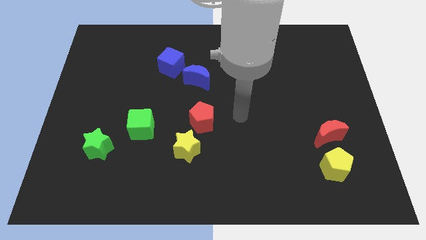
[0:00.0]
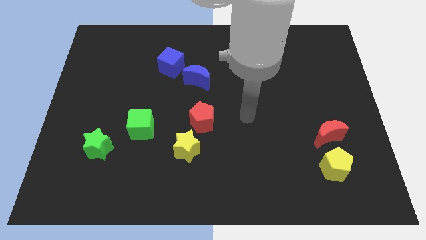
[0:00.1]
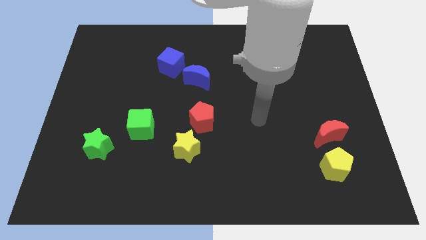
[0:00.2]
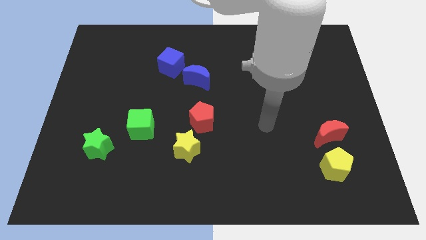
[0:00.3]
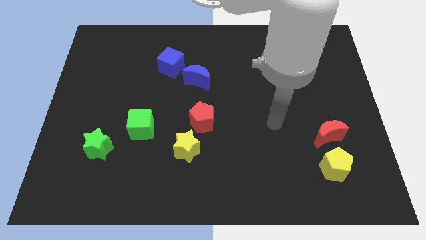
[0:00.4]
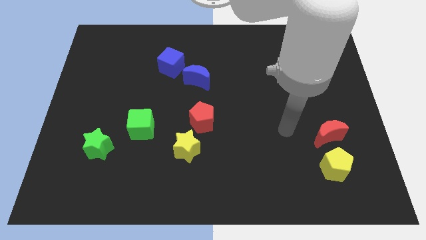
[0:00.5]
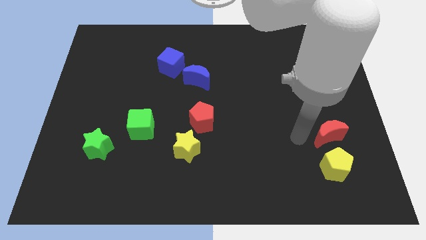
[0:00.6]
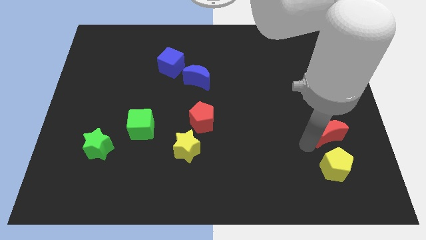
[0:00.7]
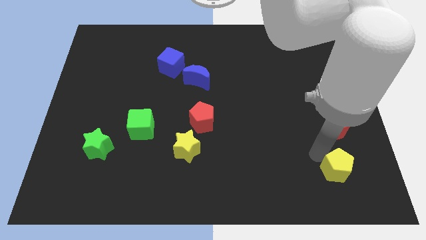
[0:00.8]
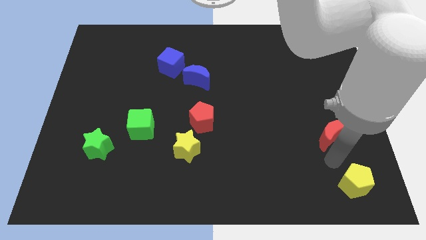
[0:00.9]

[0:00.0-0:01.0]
move the red moon away from the yellow pentagon

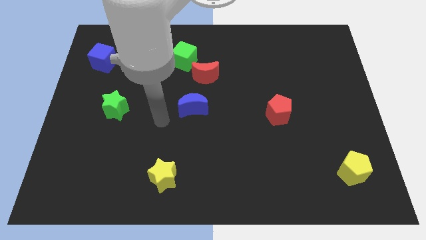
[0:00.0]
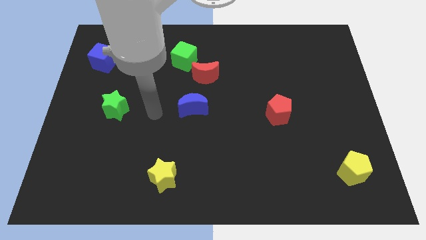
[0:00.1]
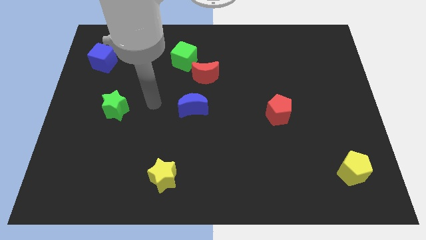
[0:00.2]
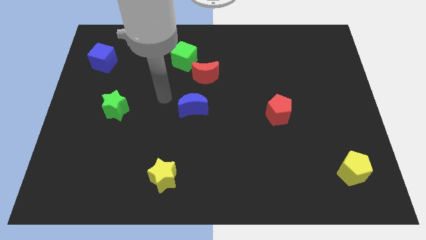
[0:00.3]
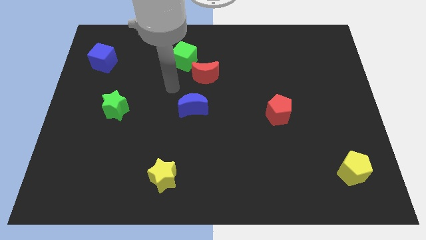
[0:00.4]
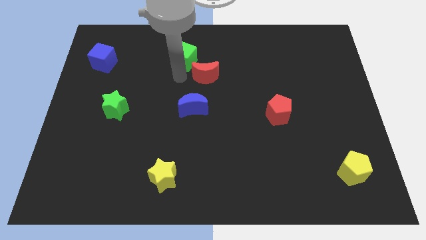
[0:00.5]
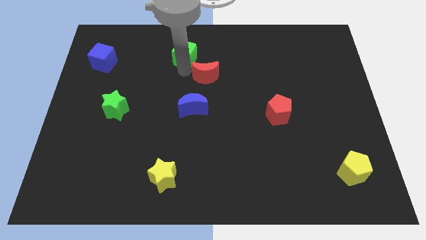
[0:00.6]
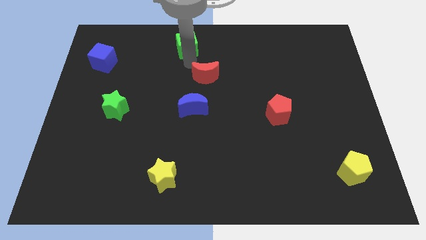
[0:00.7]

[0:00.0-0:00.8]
pull the red moon apart from the green cube

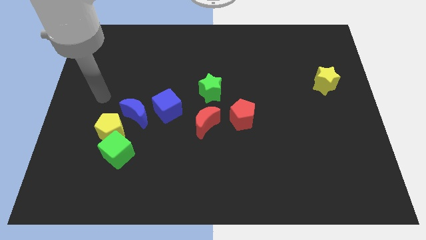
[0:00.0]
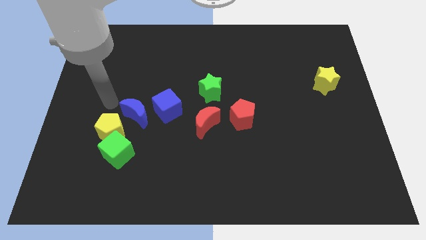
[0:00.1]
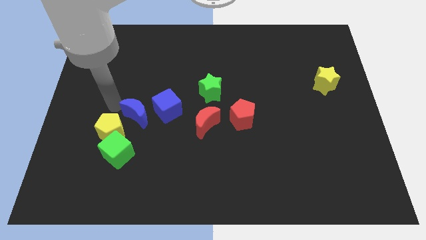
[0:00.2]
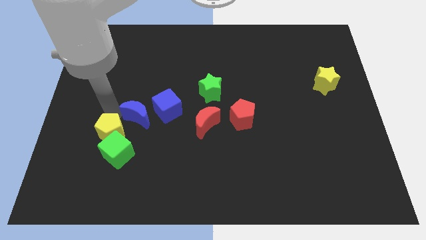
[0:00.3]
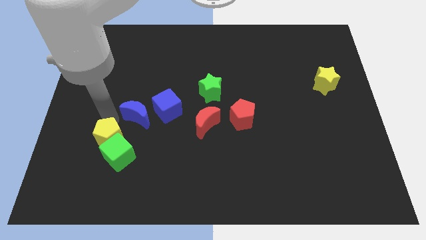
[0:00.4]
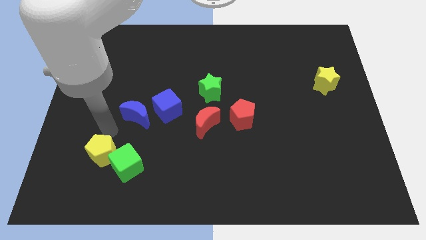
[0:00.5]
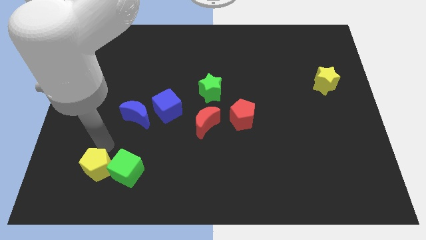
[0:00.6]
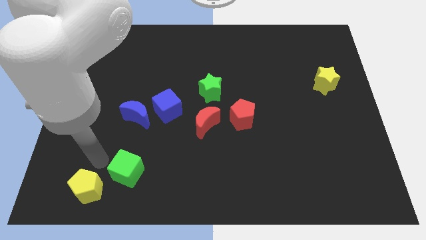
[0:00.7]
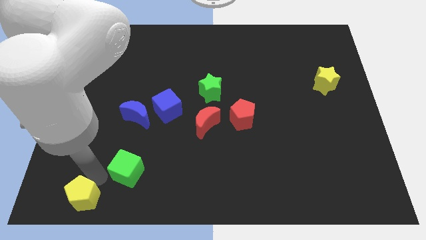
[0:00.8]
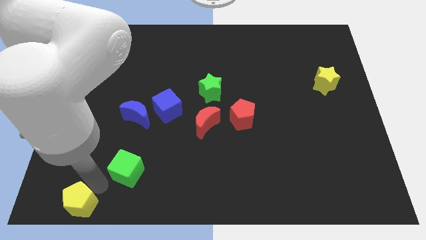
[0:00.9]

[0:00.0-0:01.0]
pull the green cube apart from the yellow pentagon

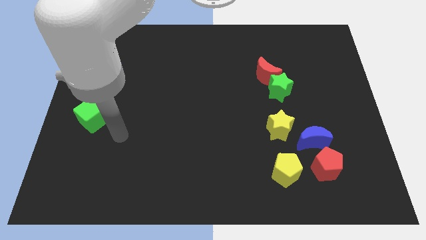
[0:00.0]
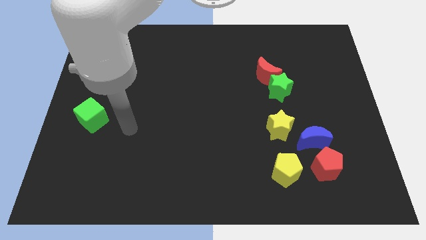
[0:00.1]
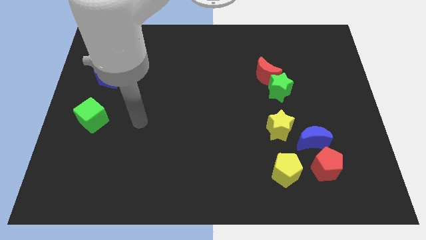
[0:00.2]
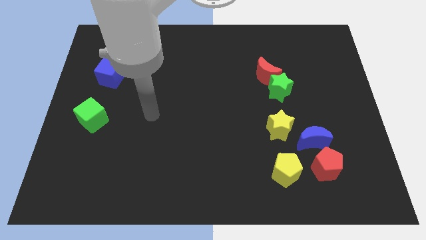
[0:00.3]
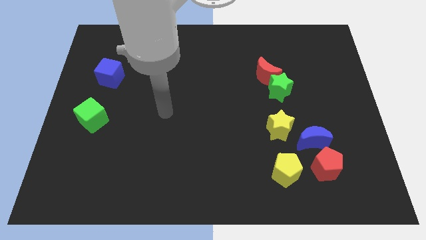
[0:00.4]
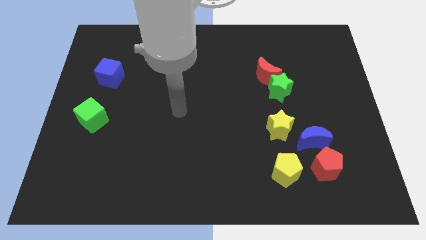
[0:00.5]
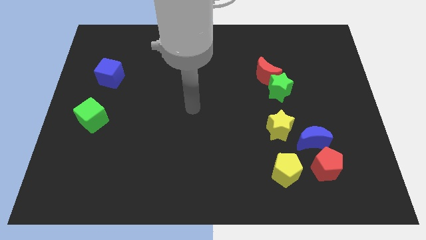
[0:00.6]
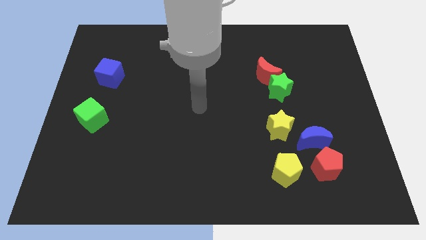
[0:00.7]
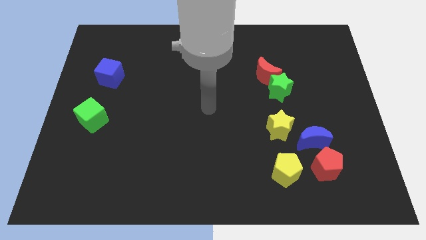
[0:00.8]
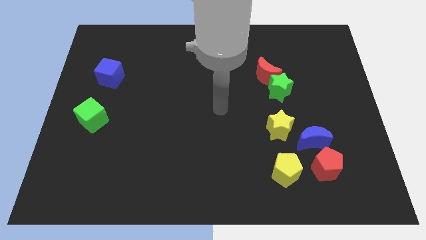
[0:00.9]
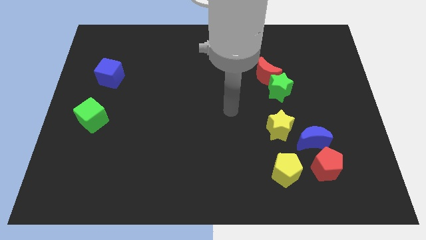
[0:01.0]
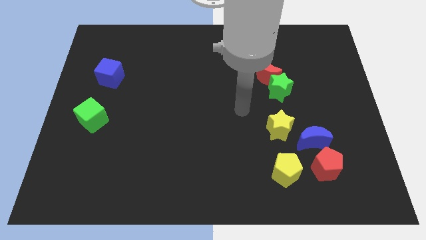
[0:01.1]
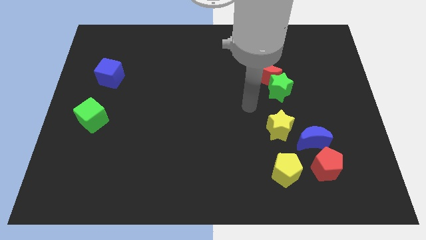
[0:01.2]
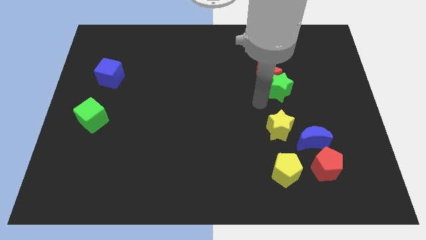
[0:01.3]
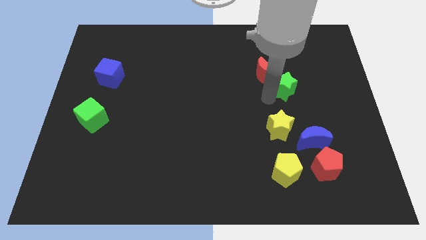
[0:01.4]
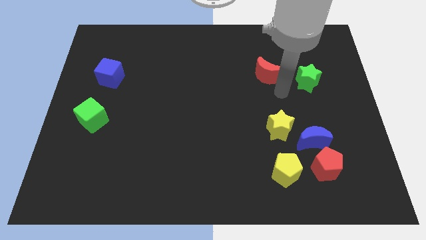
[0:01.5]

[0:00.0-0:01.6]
separate the red moon from the green star

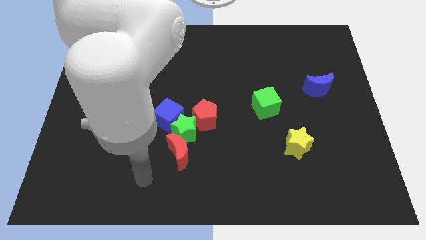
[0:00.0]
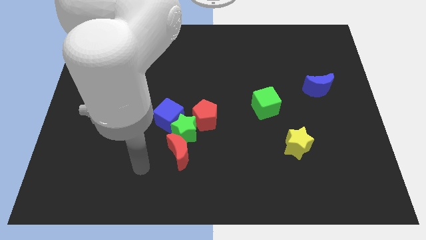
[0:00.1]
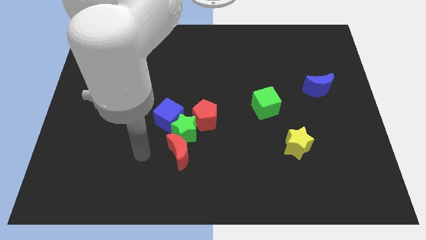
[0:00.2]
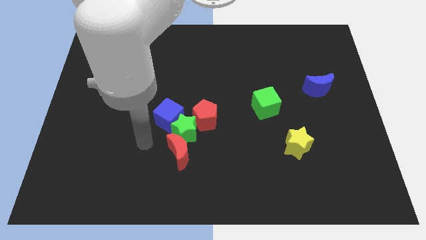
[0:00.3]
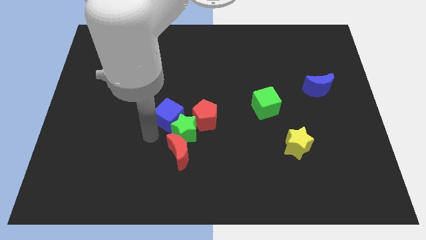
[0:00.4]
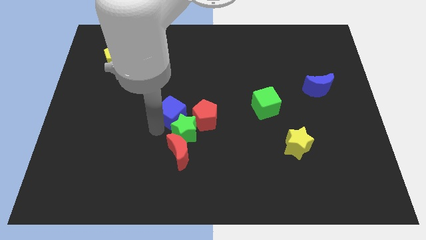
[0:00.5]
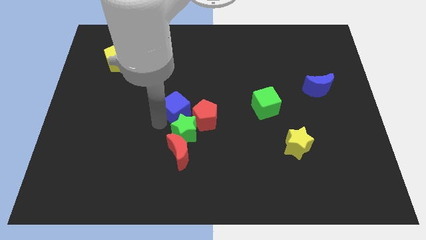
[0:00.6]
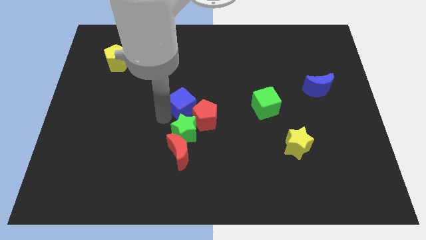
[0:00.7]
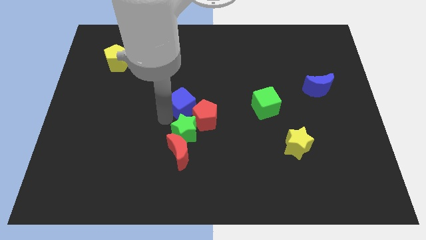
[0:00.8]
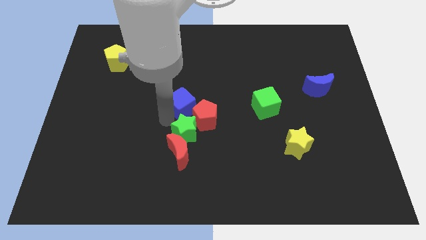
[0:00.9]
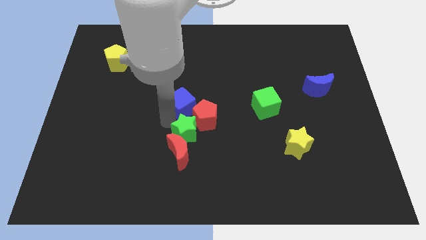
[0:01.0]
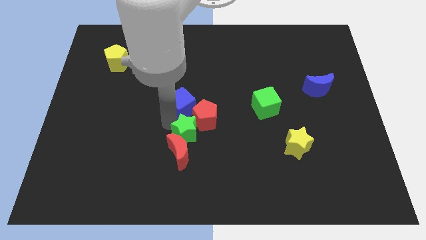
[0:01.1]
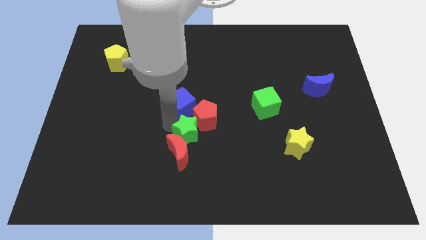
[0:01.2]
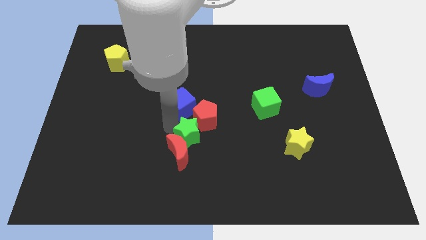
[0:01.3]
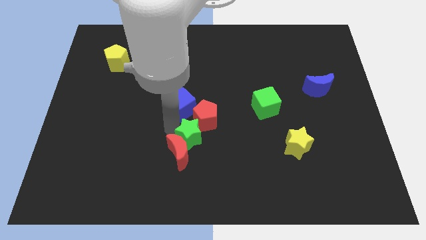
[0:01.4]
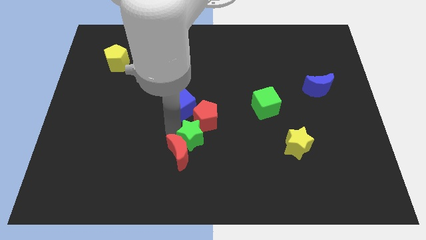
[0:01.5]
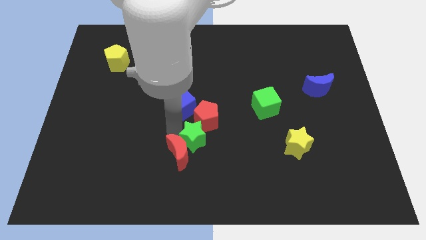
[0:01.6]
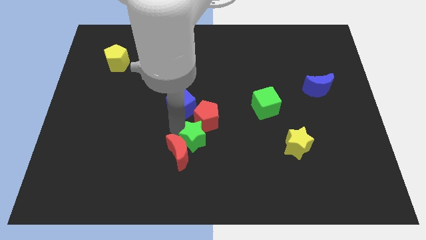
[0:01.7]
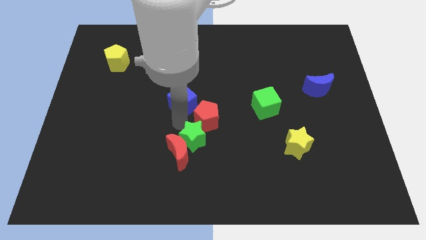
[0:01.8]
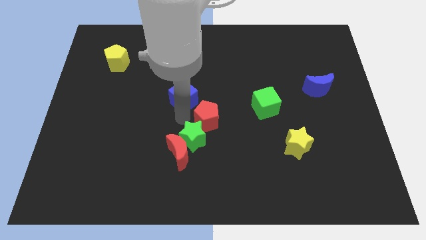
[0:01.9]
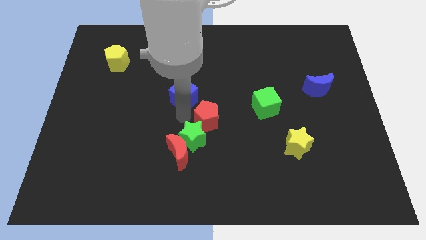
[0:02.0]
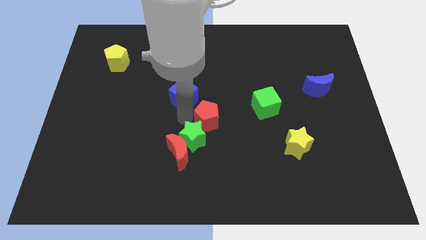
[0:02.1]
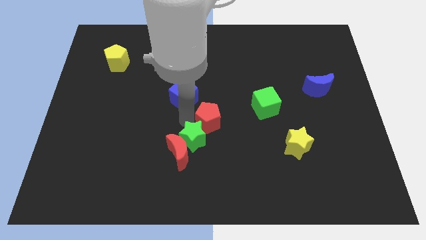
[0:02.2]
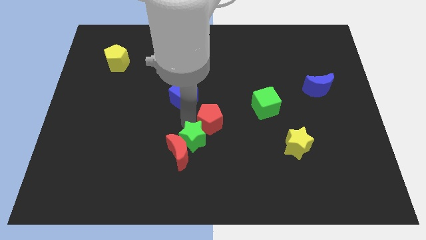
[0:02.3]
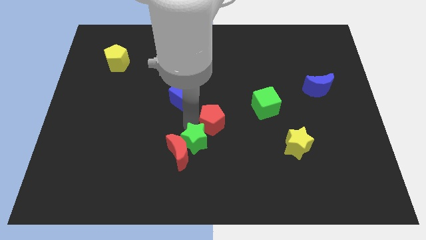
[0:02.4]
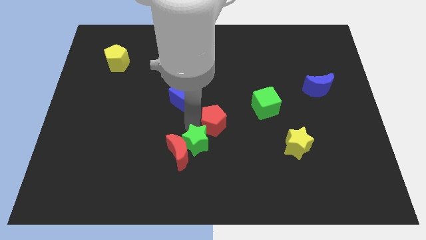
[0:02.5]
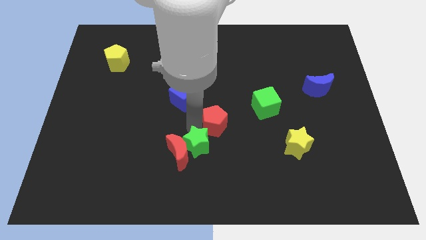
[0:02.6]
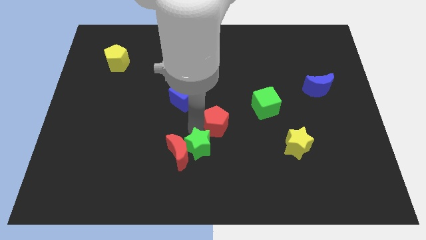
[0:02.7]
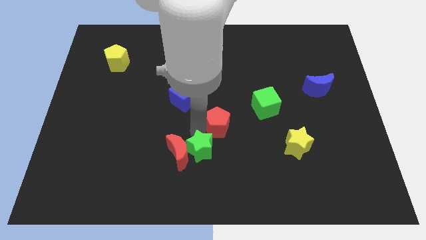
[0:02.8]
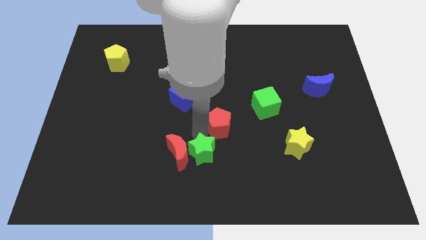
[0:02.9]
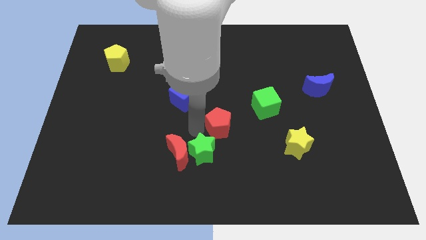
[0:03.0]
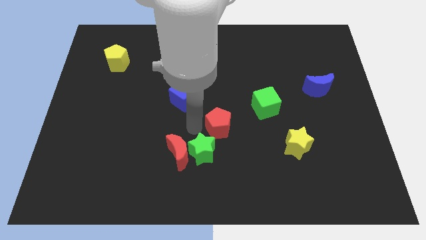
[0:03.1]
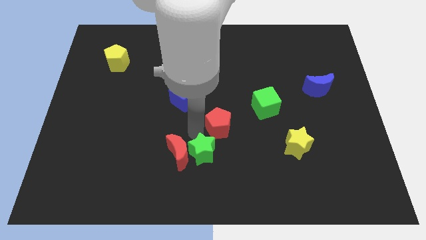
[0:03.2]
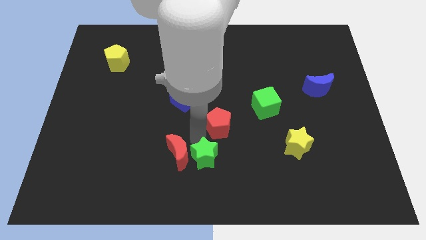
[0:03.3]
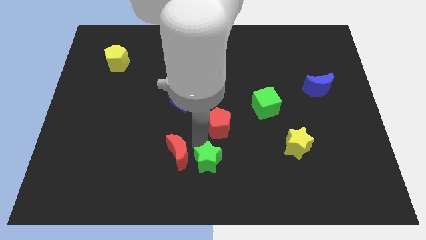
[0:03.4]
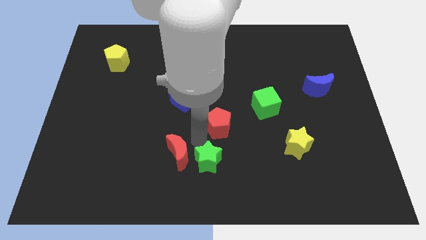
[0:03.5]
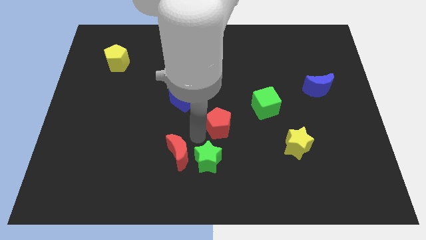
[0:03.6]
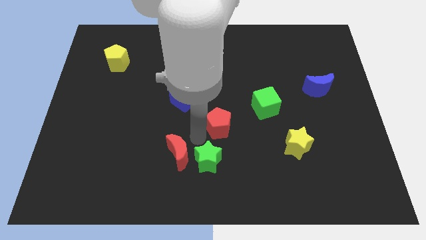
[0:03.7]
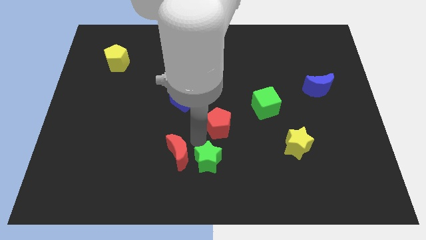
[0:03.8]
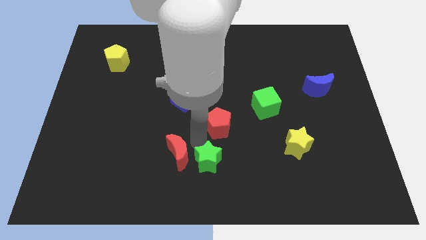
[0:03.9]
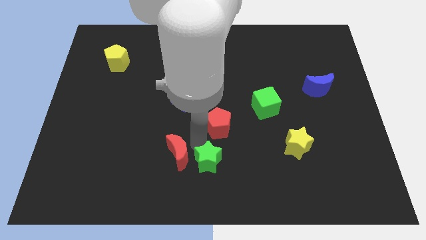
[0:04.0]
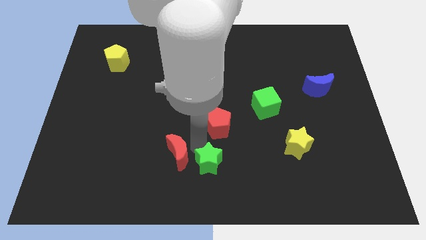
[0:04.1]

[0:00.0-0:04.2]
move the green star away from the blue cube, red pentagon, and red moon

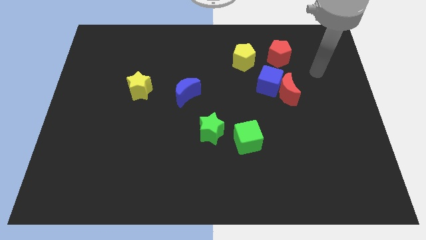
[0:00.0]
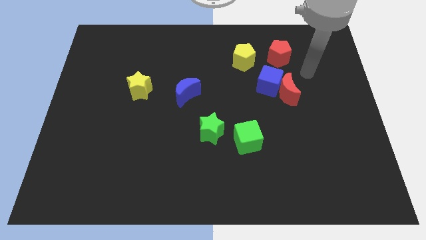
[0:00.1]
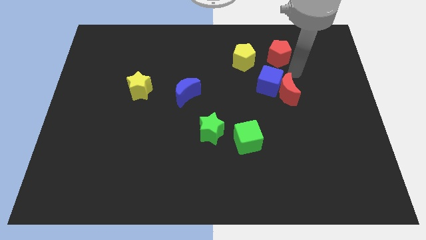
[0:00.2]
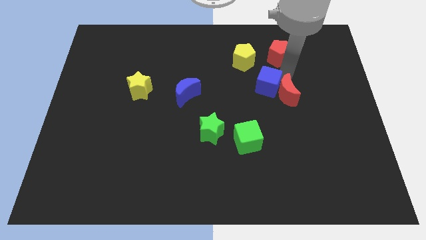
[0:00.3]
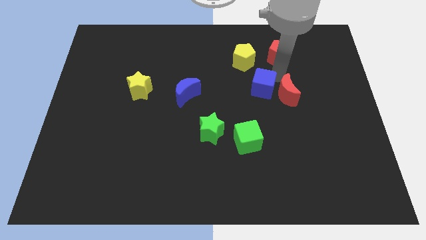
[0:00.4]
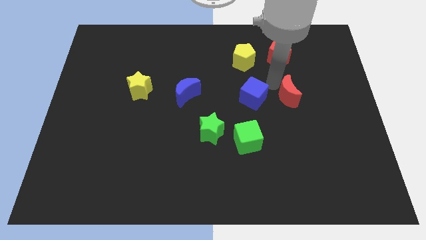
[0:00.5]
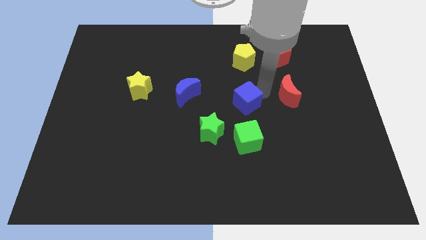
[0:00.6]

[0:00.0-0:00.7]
pull the red moon apart from the blue cube
